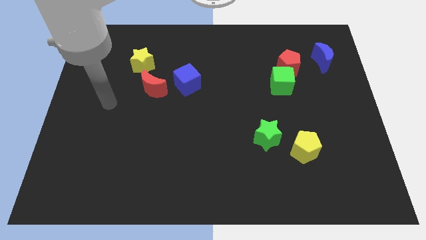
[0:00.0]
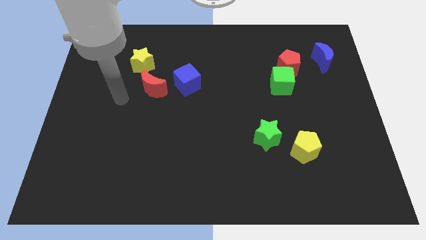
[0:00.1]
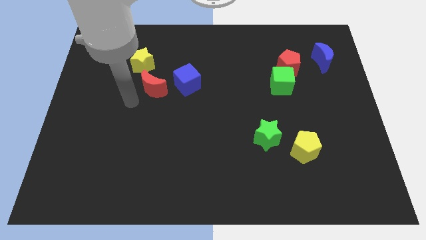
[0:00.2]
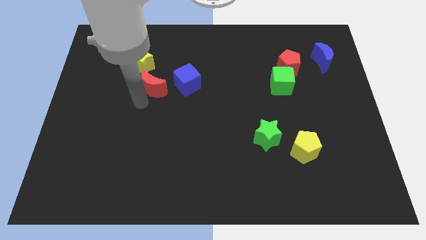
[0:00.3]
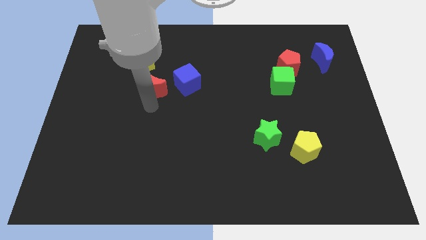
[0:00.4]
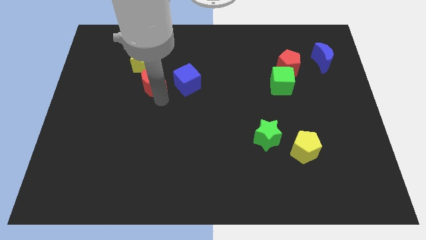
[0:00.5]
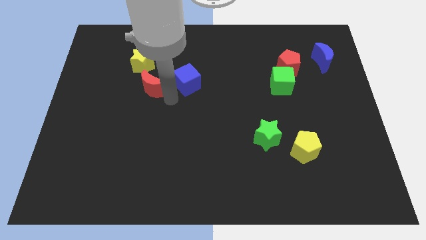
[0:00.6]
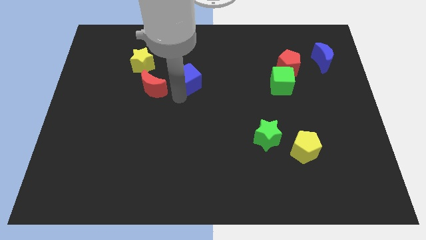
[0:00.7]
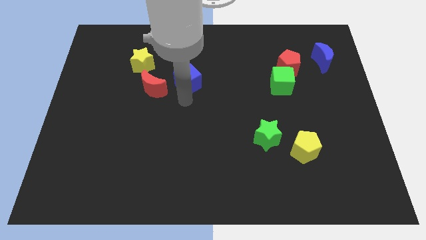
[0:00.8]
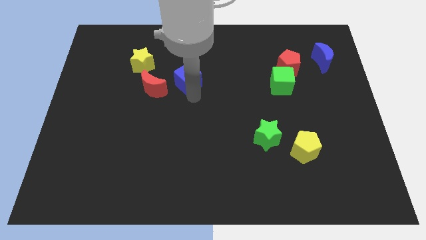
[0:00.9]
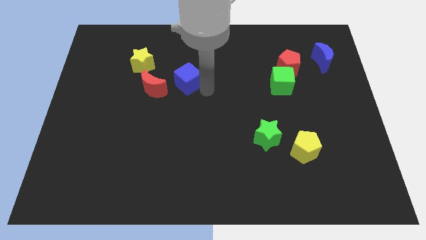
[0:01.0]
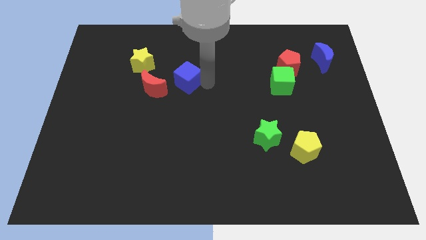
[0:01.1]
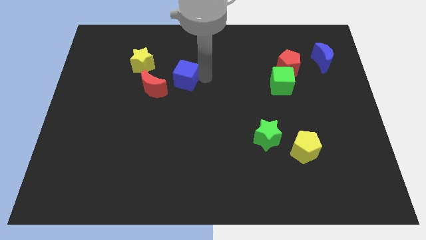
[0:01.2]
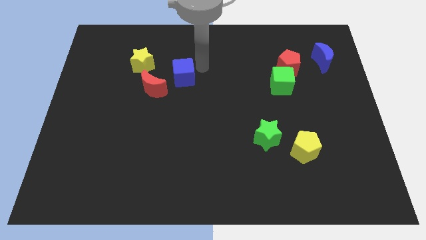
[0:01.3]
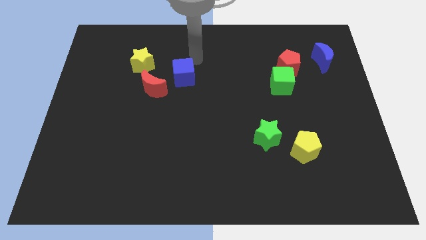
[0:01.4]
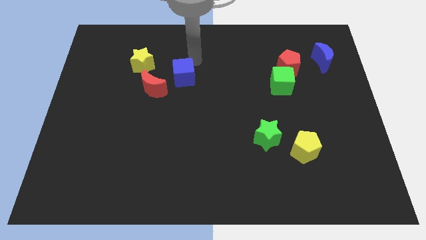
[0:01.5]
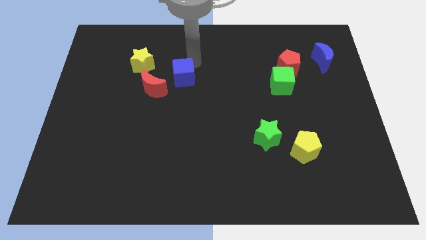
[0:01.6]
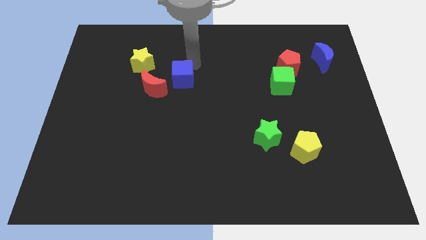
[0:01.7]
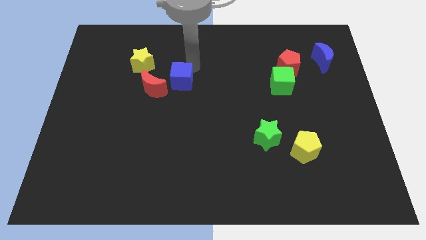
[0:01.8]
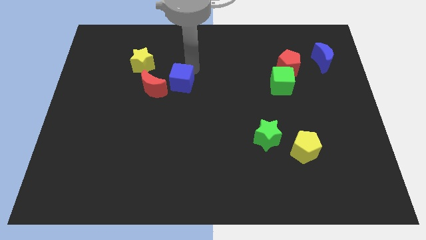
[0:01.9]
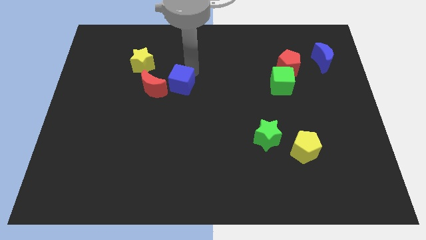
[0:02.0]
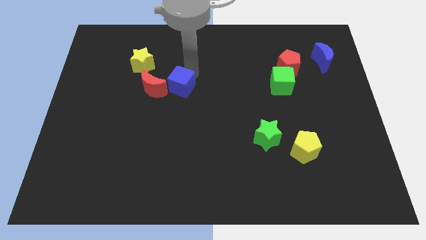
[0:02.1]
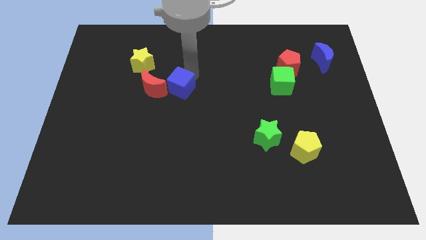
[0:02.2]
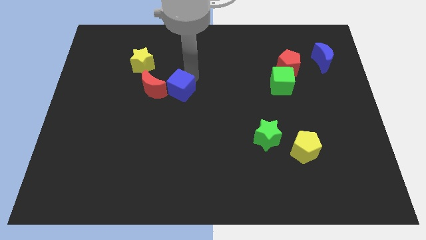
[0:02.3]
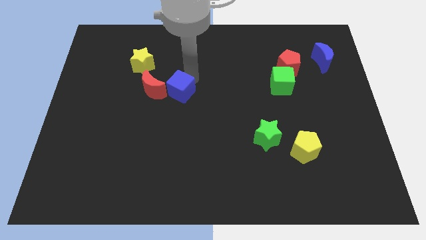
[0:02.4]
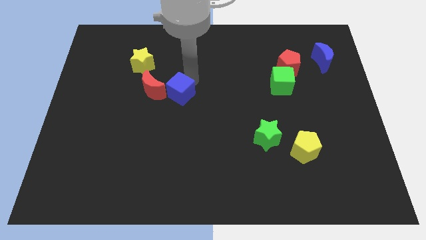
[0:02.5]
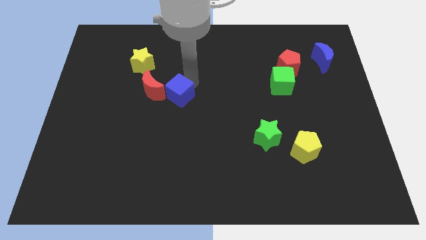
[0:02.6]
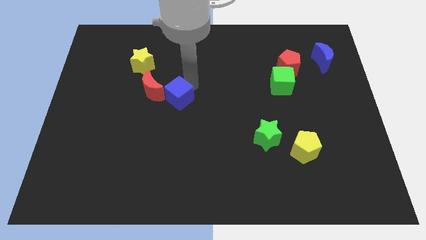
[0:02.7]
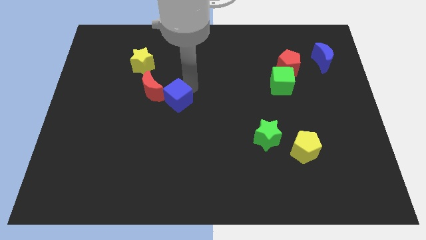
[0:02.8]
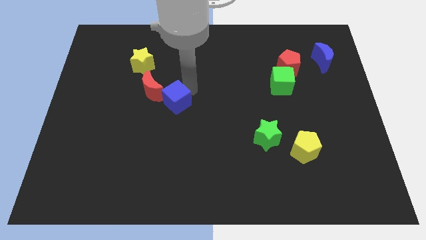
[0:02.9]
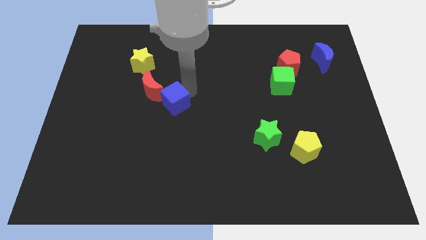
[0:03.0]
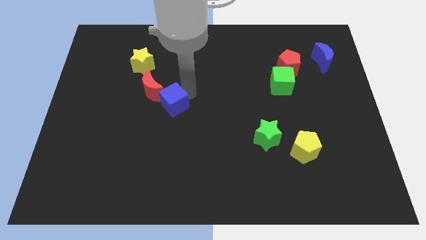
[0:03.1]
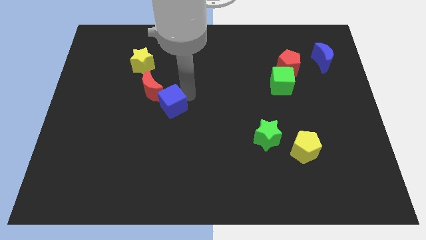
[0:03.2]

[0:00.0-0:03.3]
slightly push the blue cube downwards and left diagonally

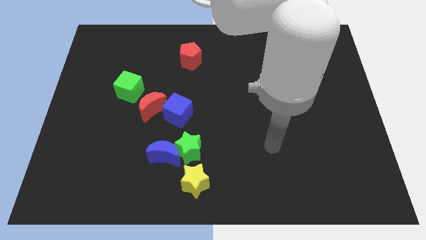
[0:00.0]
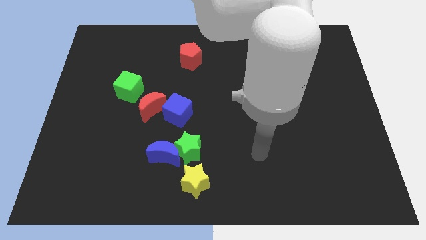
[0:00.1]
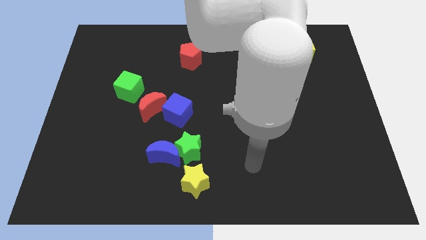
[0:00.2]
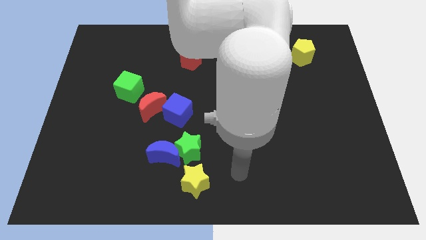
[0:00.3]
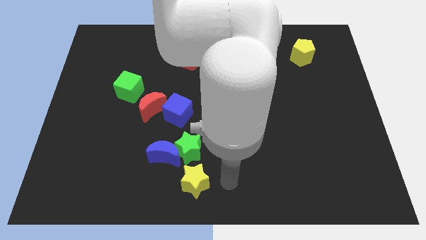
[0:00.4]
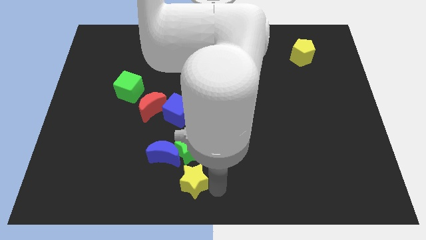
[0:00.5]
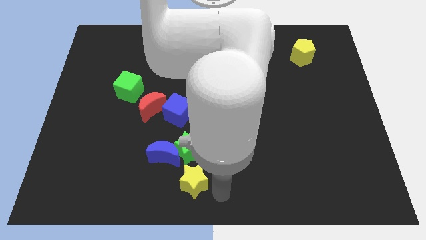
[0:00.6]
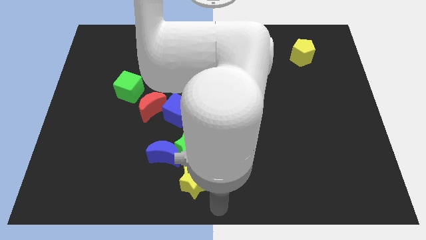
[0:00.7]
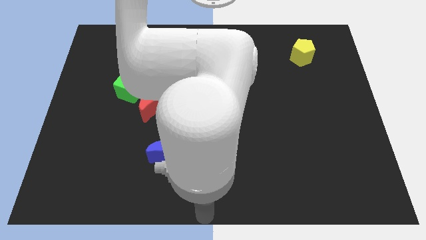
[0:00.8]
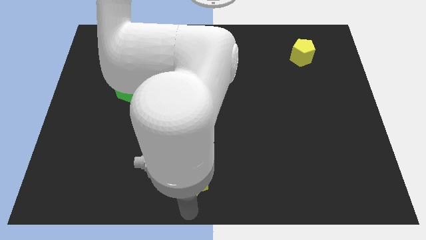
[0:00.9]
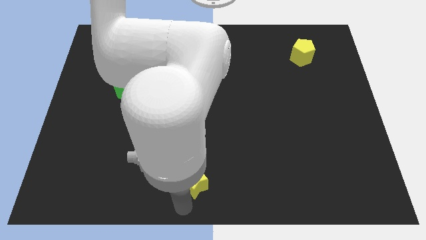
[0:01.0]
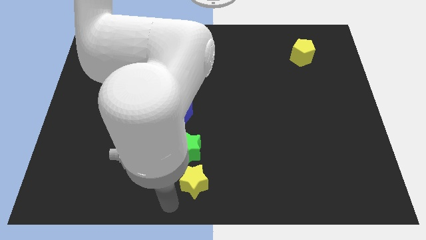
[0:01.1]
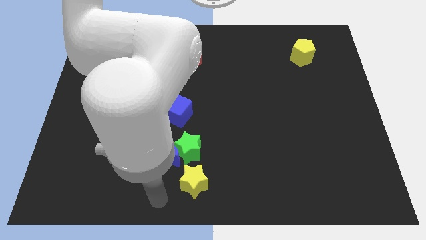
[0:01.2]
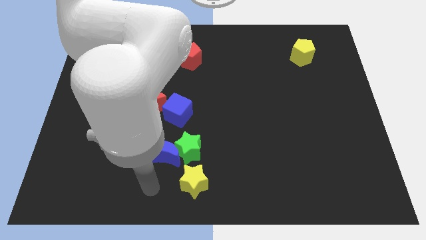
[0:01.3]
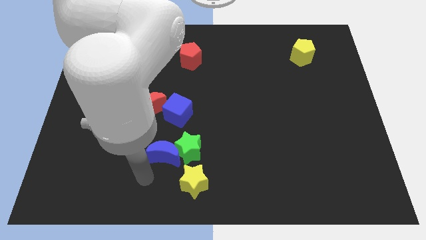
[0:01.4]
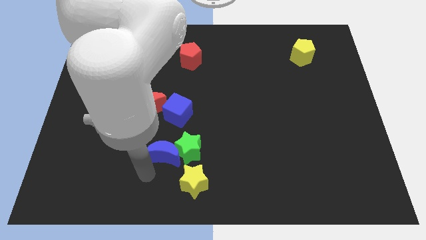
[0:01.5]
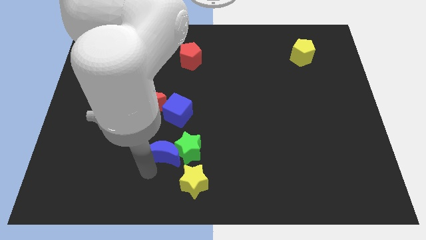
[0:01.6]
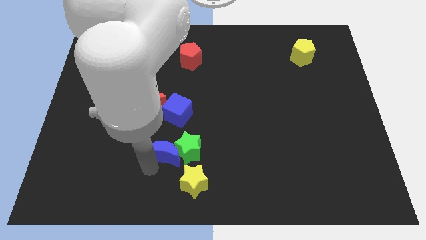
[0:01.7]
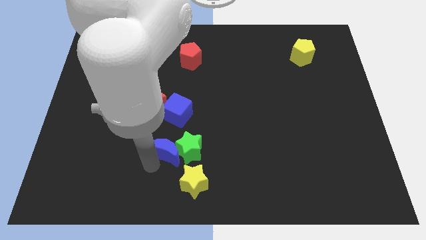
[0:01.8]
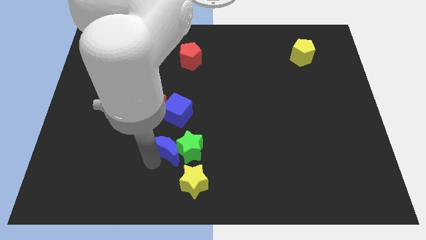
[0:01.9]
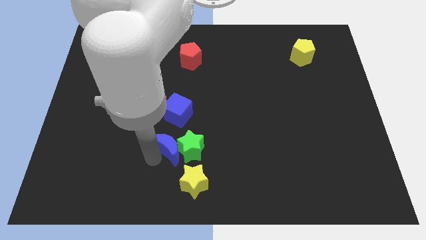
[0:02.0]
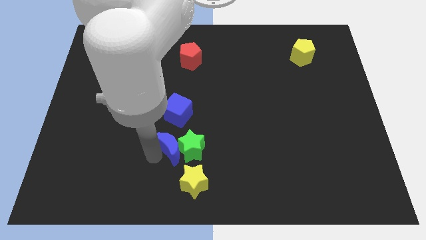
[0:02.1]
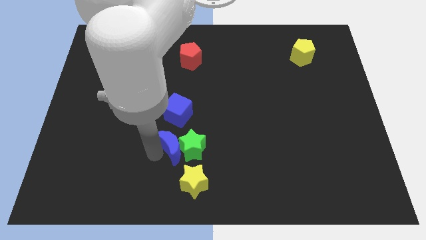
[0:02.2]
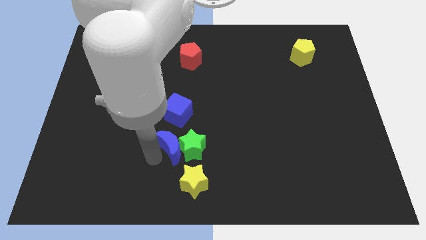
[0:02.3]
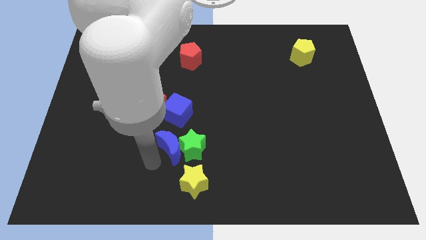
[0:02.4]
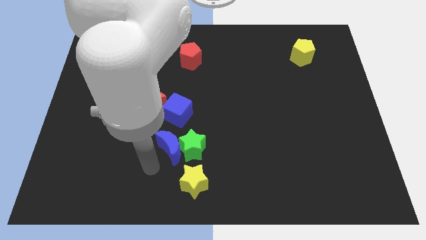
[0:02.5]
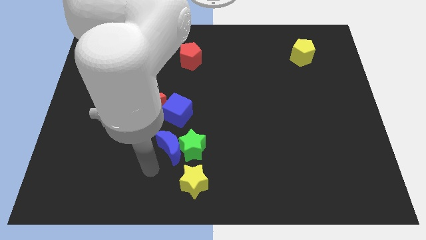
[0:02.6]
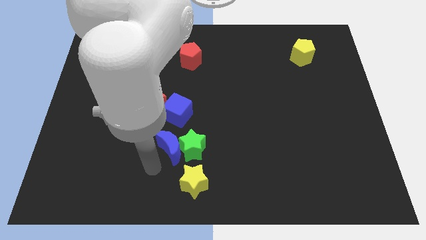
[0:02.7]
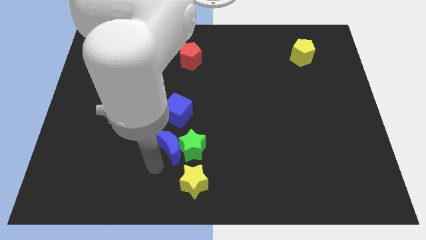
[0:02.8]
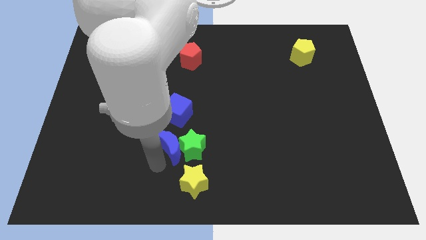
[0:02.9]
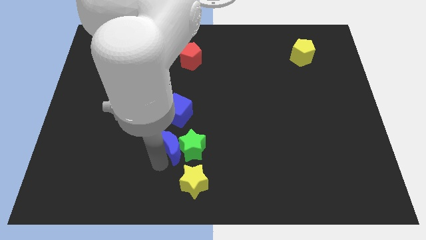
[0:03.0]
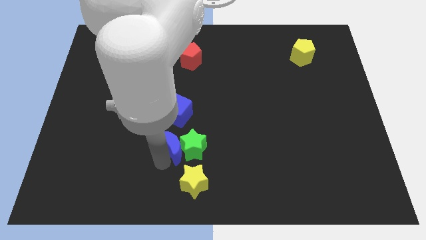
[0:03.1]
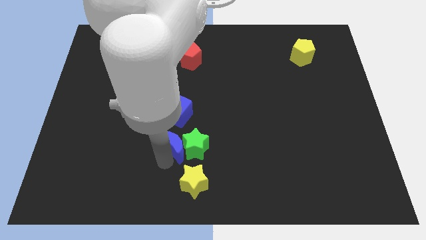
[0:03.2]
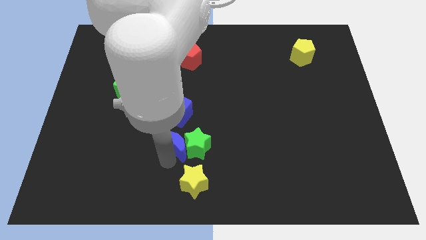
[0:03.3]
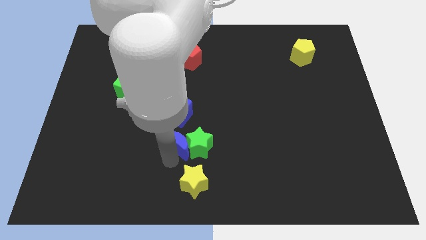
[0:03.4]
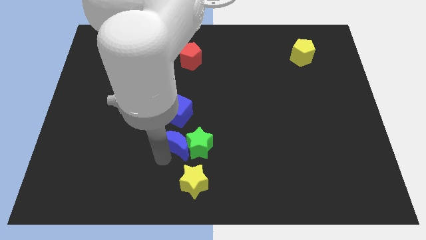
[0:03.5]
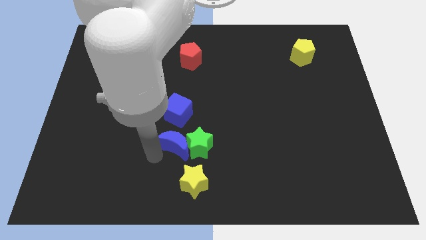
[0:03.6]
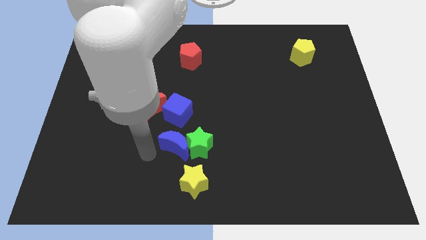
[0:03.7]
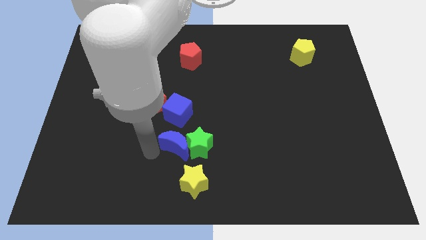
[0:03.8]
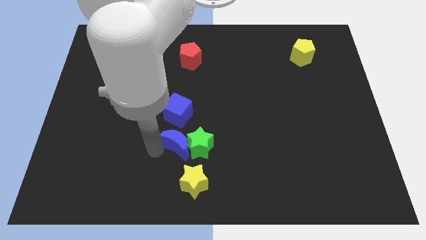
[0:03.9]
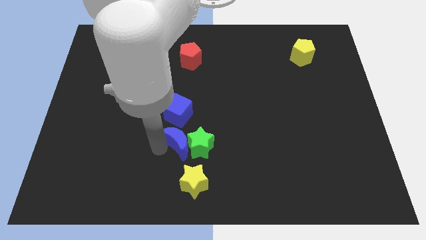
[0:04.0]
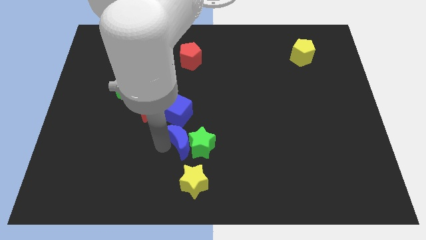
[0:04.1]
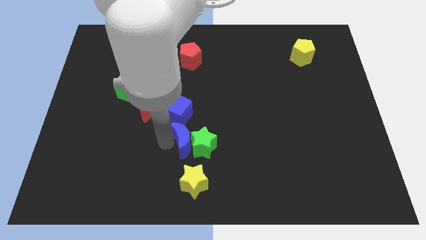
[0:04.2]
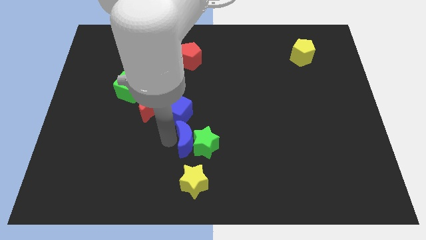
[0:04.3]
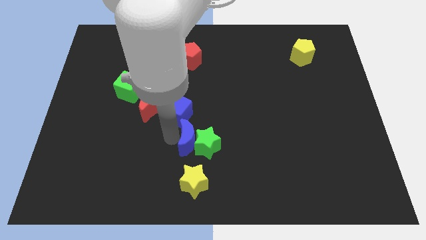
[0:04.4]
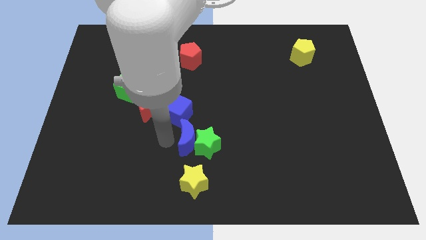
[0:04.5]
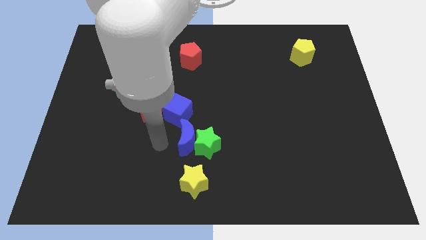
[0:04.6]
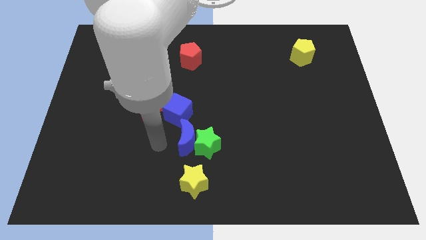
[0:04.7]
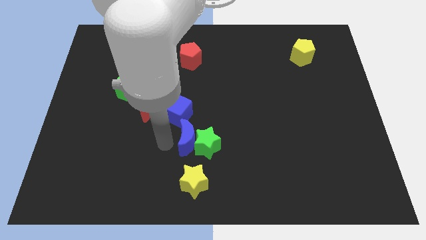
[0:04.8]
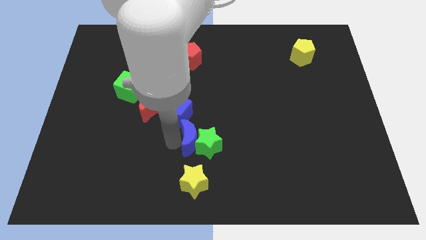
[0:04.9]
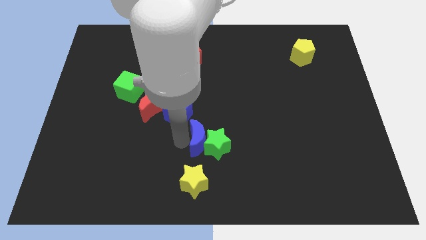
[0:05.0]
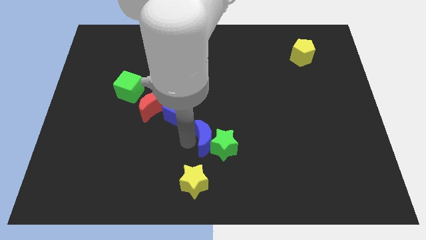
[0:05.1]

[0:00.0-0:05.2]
move the blue moon to the right somewhat
